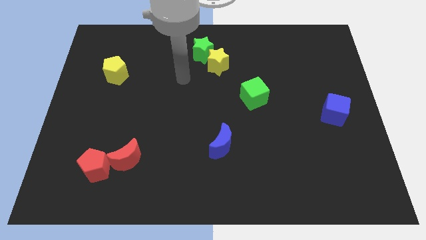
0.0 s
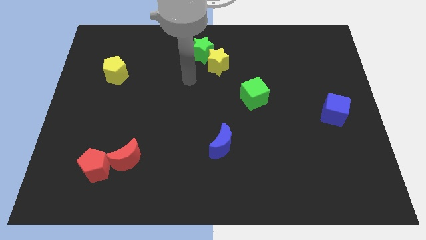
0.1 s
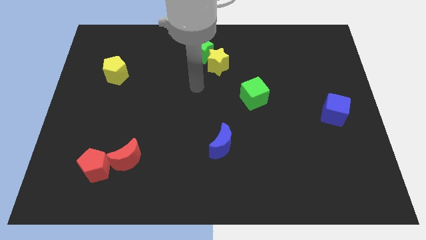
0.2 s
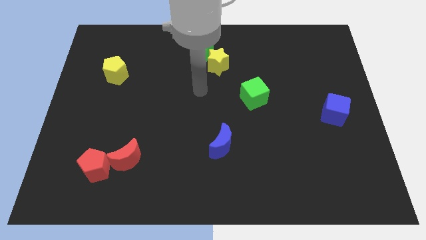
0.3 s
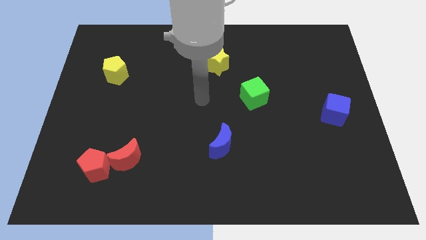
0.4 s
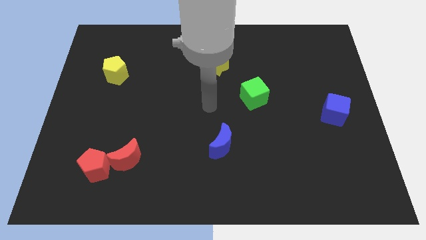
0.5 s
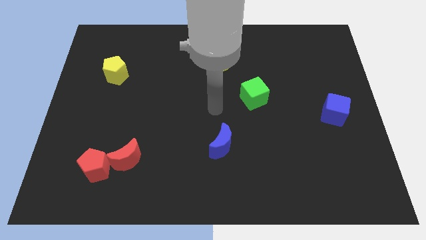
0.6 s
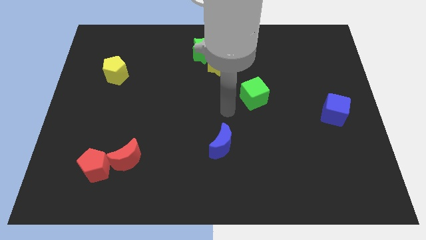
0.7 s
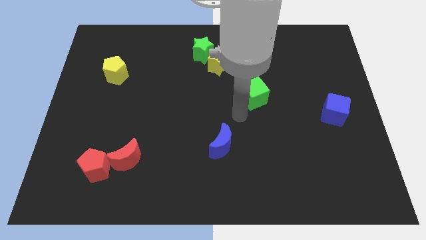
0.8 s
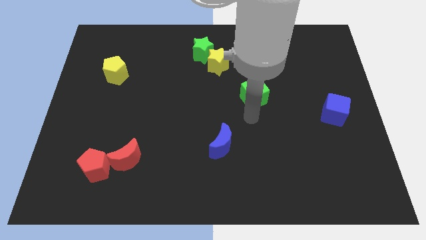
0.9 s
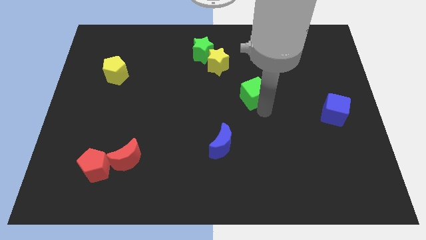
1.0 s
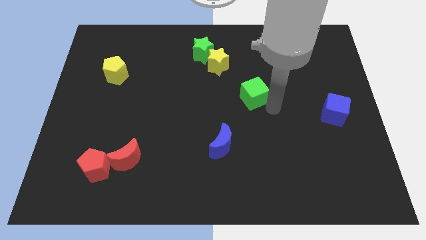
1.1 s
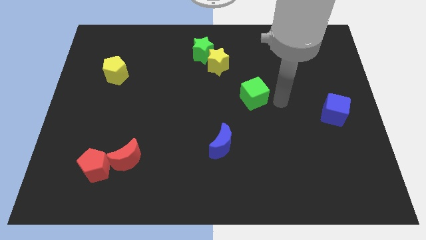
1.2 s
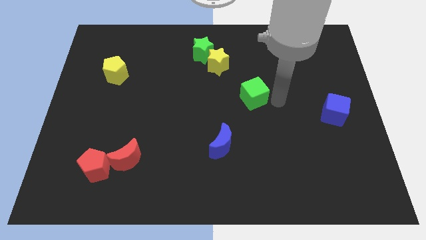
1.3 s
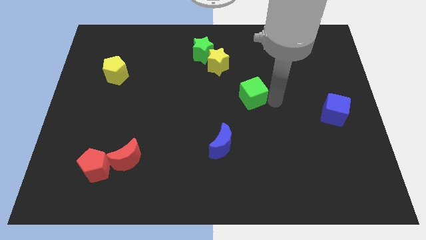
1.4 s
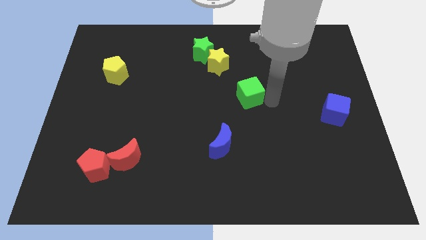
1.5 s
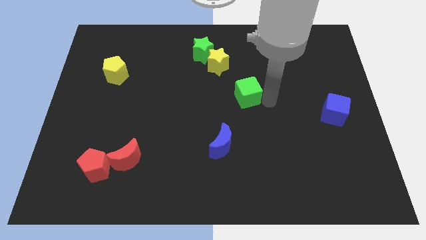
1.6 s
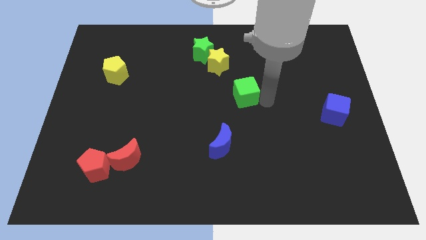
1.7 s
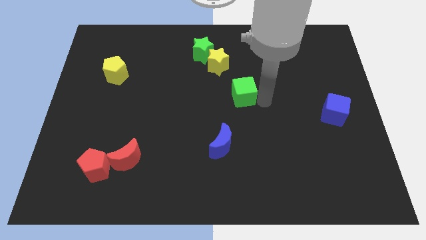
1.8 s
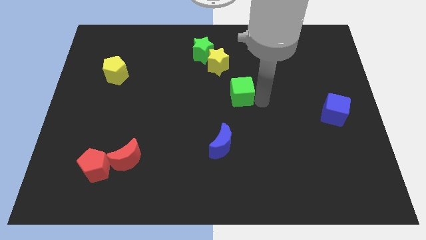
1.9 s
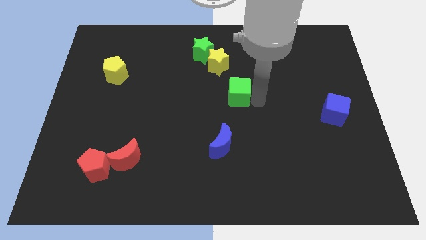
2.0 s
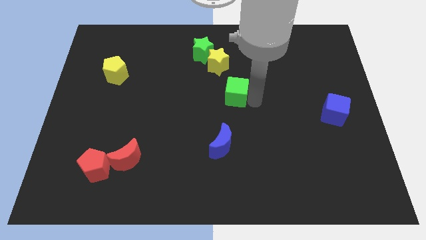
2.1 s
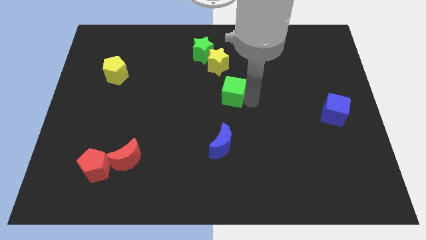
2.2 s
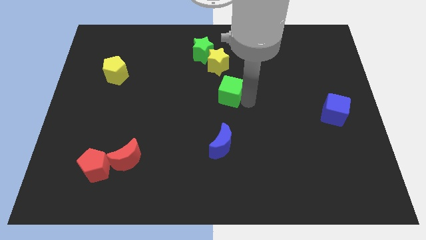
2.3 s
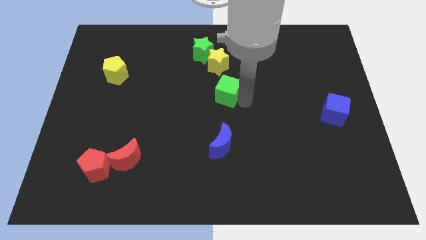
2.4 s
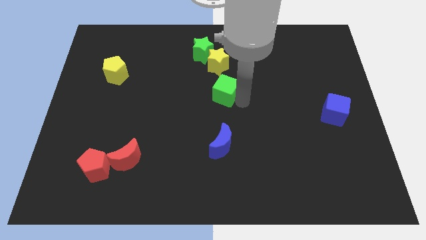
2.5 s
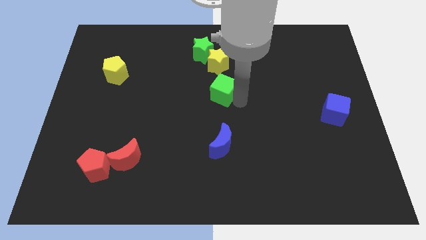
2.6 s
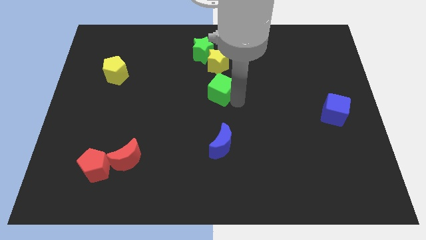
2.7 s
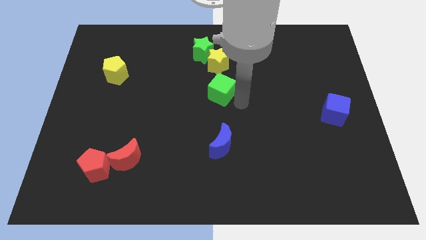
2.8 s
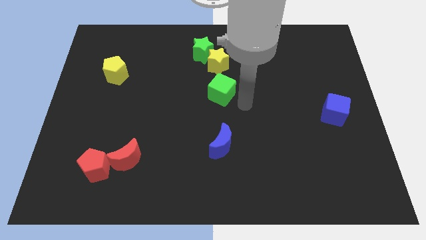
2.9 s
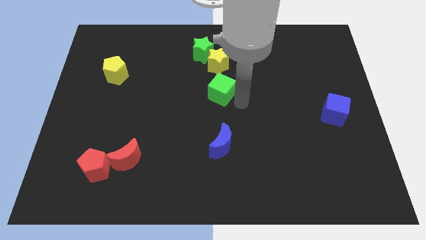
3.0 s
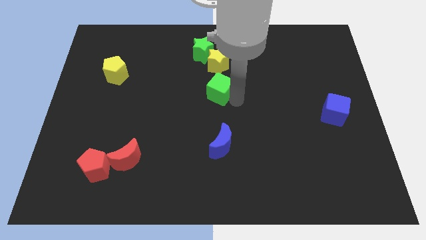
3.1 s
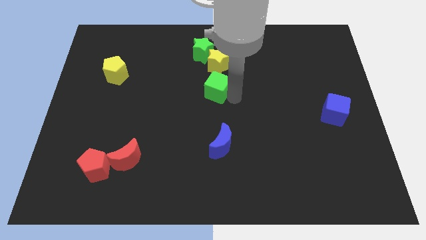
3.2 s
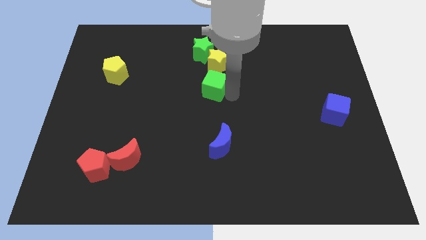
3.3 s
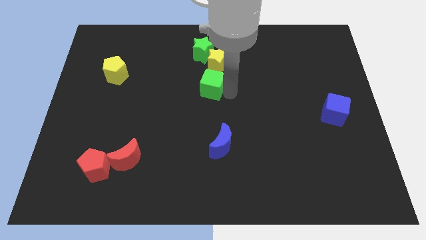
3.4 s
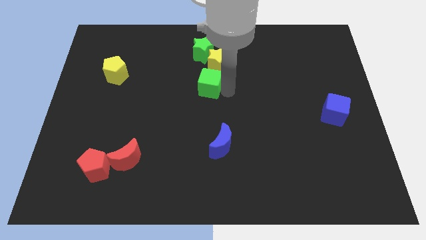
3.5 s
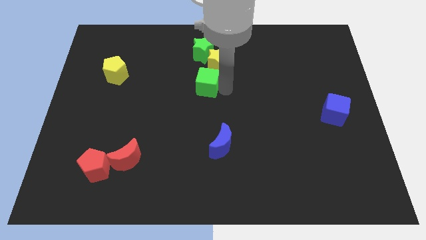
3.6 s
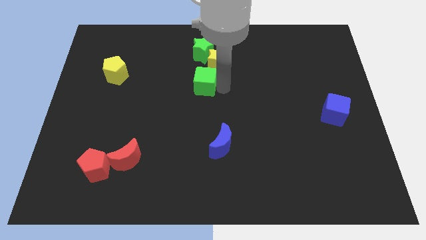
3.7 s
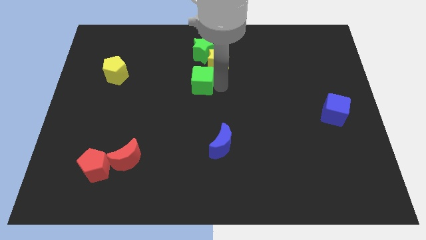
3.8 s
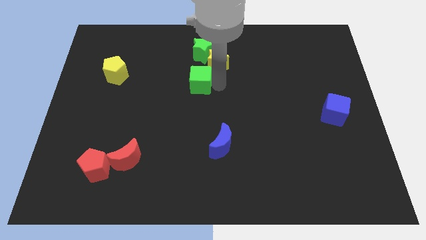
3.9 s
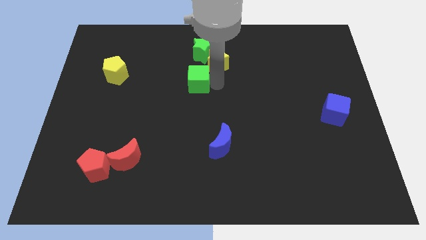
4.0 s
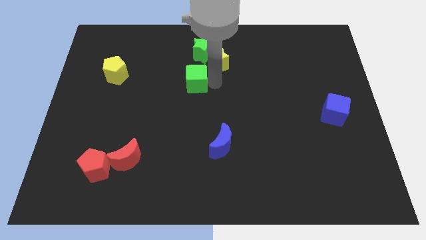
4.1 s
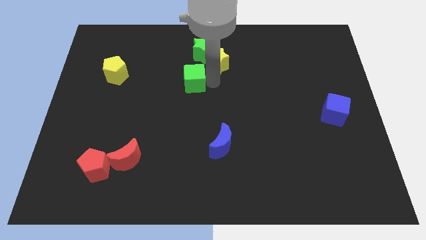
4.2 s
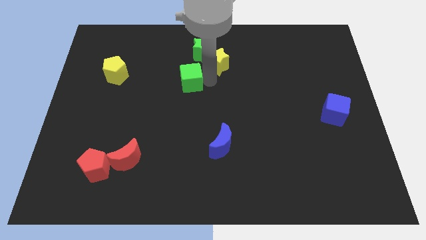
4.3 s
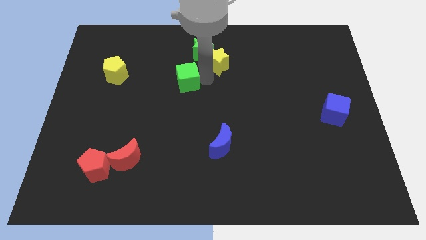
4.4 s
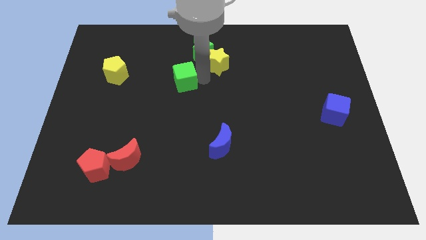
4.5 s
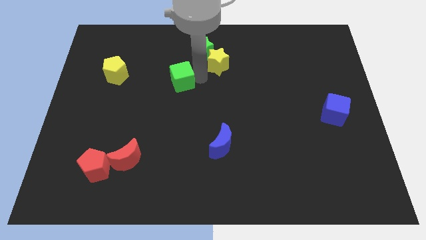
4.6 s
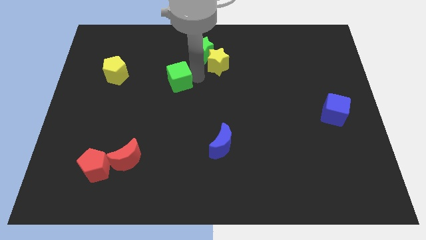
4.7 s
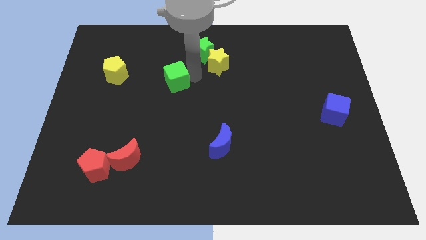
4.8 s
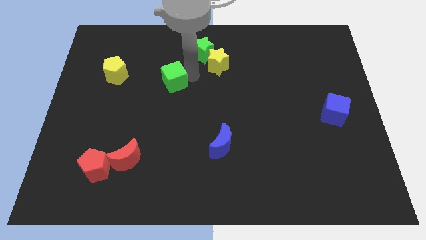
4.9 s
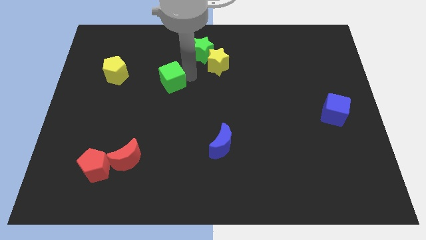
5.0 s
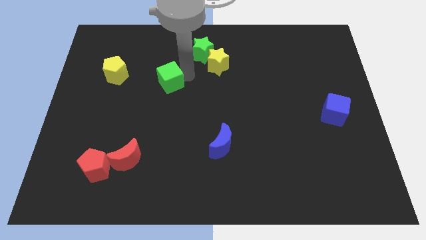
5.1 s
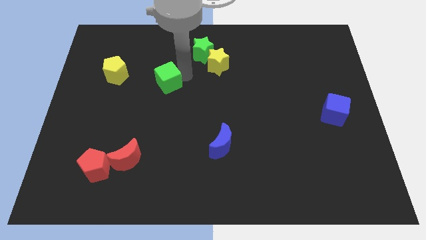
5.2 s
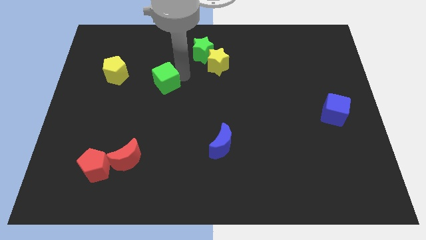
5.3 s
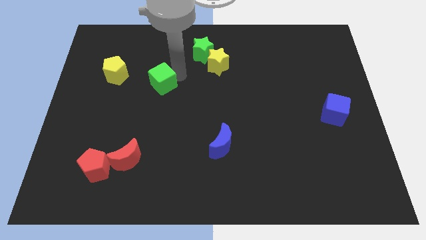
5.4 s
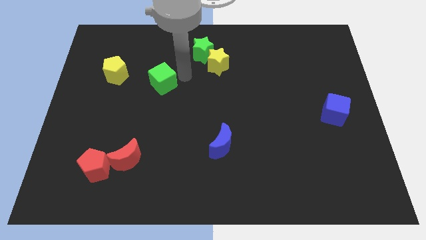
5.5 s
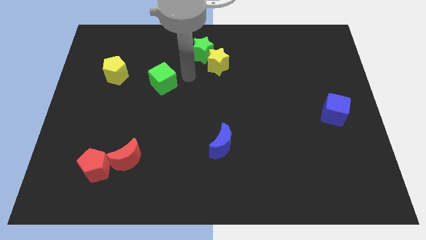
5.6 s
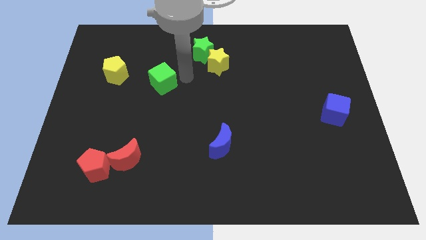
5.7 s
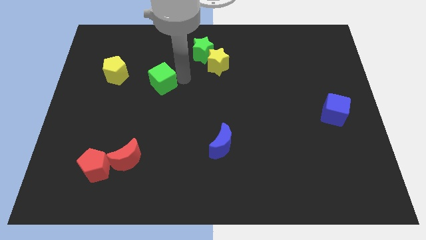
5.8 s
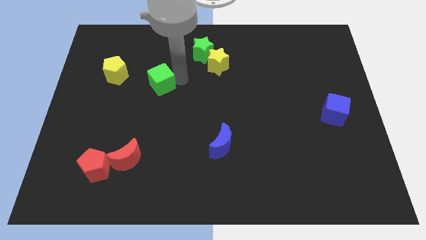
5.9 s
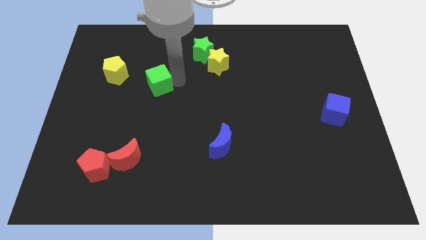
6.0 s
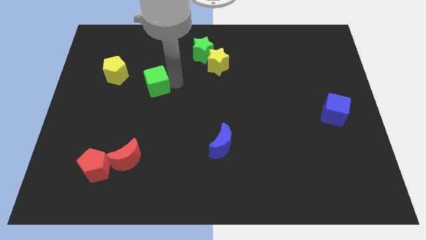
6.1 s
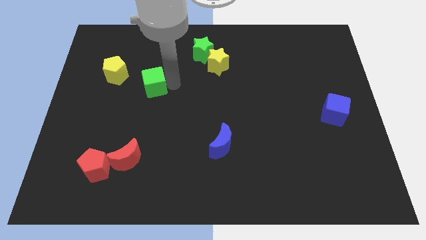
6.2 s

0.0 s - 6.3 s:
slide the green cube to the bottom right of the yellow pentagon
